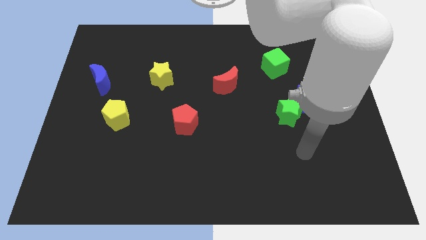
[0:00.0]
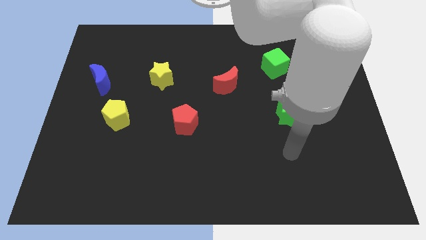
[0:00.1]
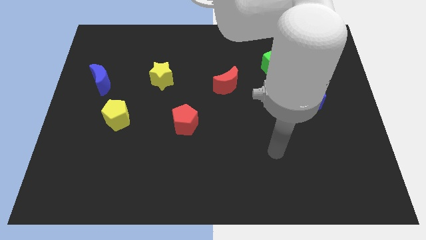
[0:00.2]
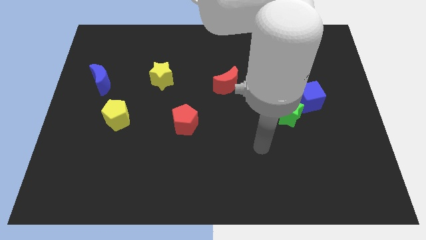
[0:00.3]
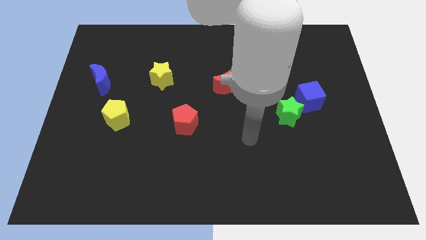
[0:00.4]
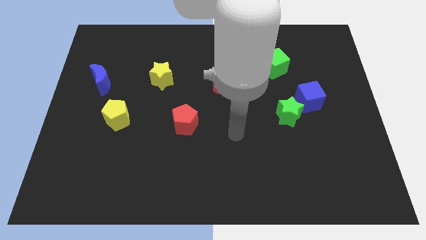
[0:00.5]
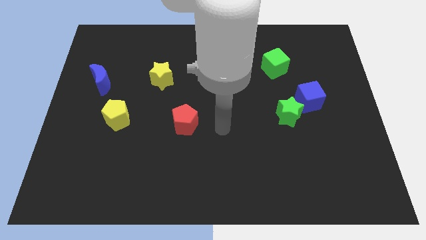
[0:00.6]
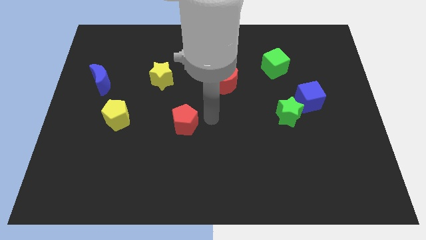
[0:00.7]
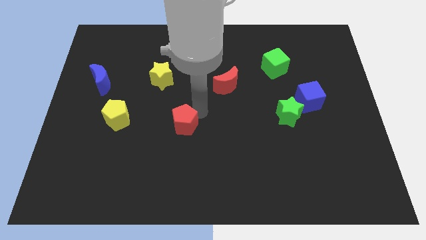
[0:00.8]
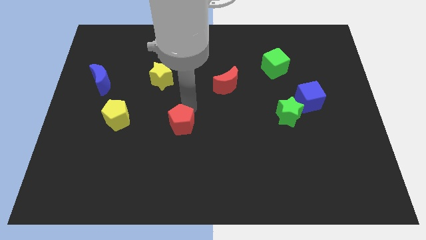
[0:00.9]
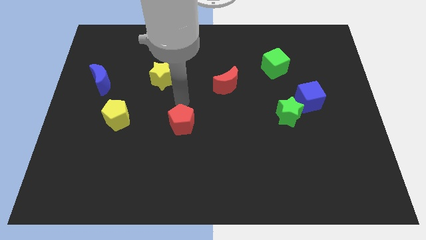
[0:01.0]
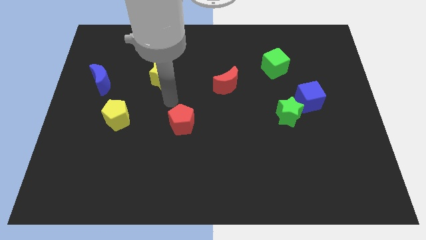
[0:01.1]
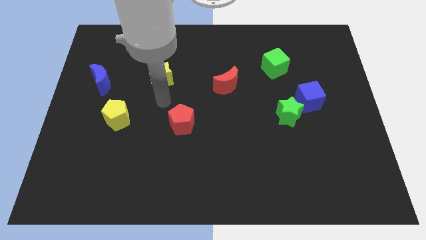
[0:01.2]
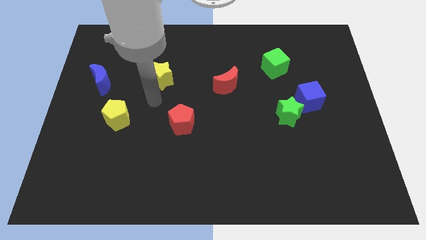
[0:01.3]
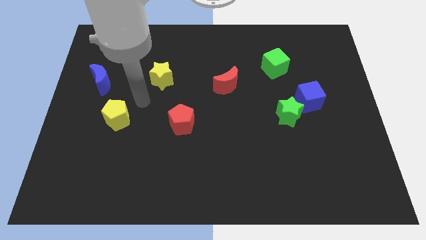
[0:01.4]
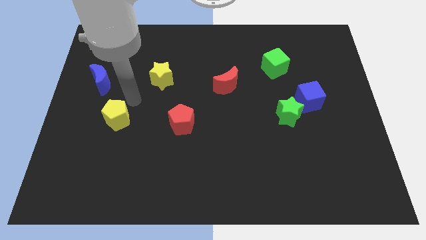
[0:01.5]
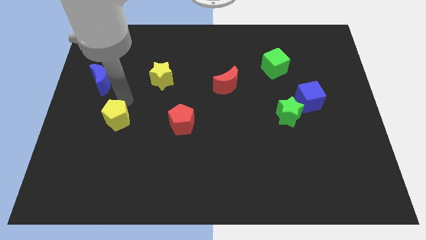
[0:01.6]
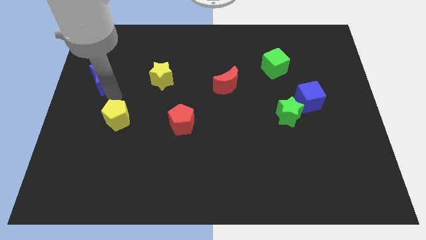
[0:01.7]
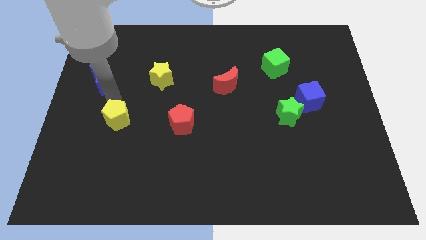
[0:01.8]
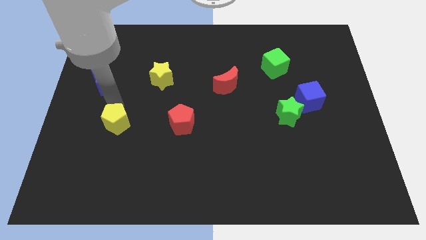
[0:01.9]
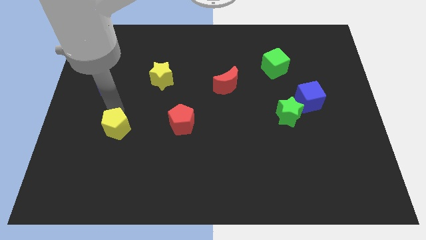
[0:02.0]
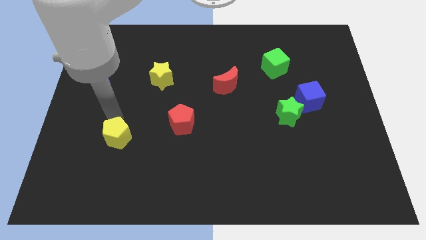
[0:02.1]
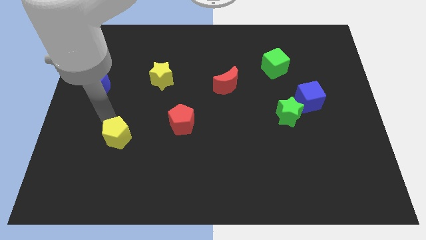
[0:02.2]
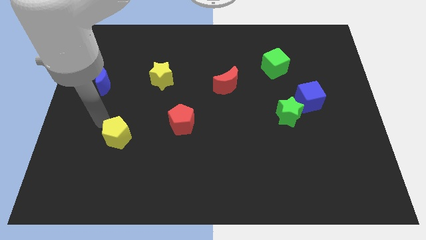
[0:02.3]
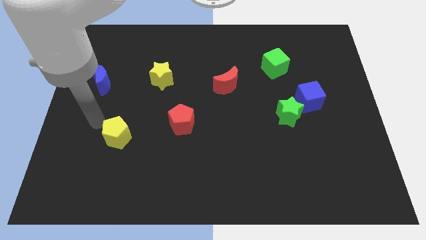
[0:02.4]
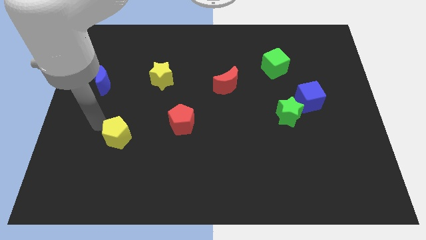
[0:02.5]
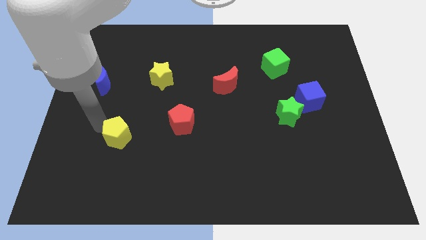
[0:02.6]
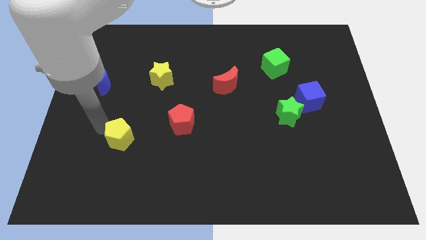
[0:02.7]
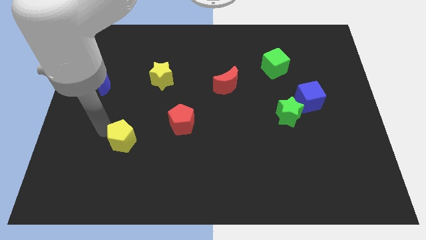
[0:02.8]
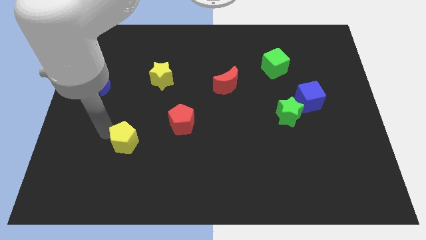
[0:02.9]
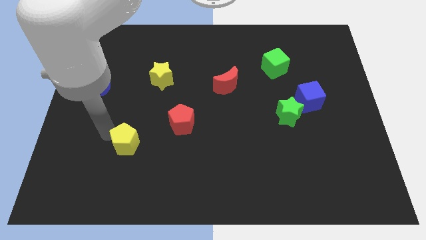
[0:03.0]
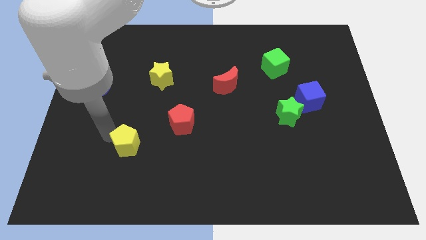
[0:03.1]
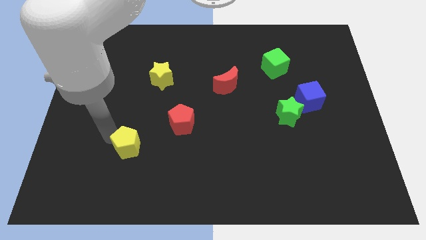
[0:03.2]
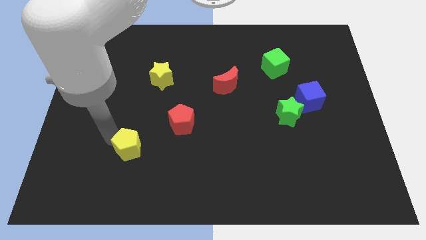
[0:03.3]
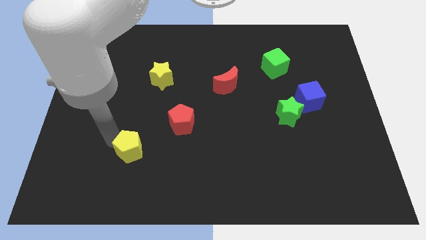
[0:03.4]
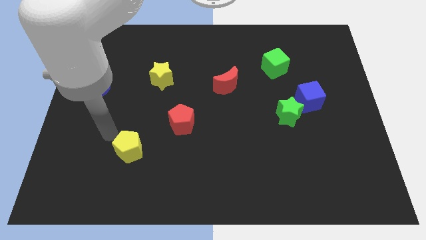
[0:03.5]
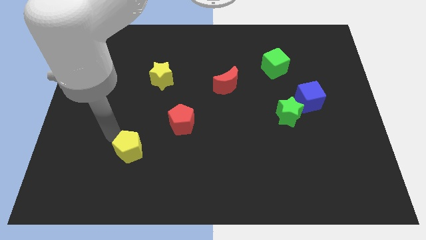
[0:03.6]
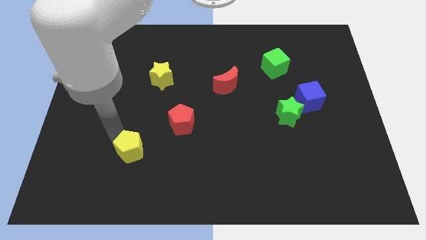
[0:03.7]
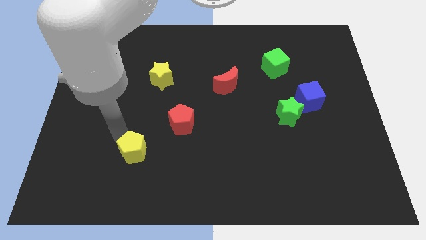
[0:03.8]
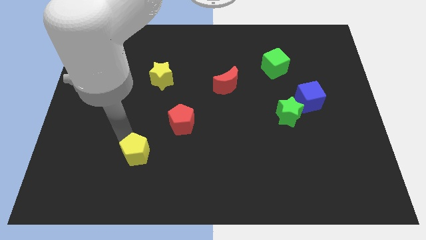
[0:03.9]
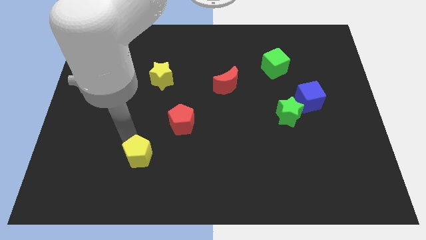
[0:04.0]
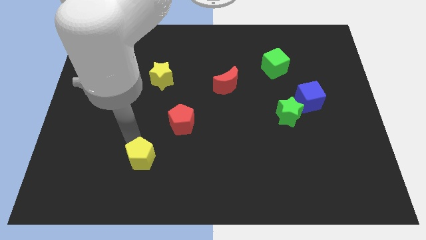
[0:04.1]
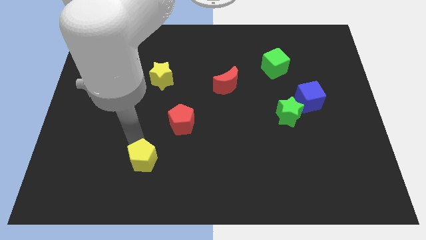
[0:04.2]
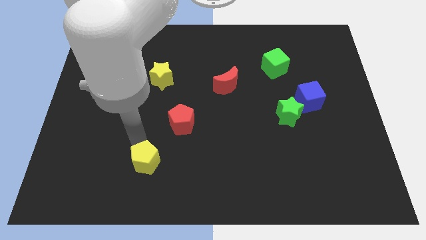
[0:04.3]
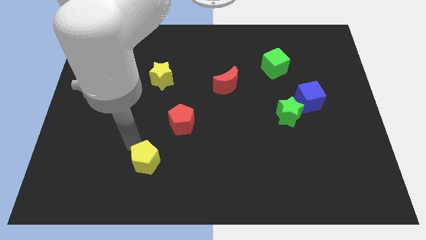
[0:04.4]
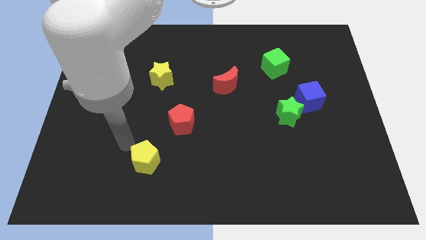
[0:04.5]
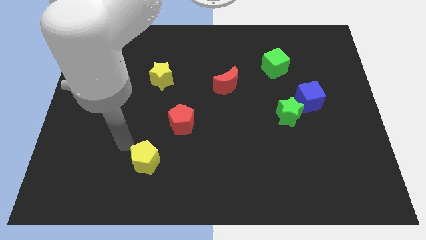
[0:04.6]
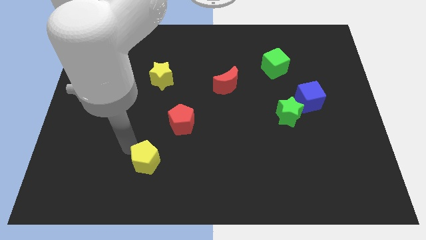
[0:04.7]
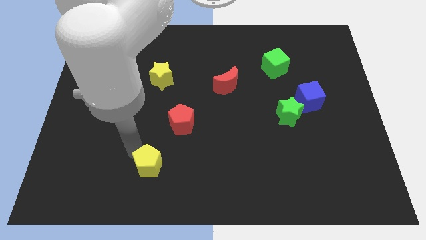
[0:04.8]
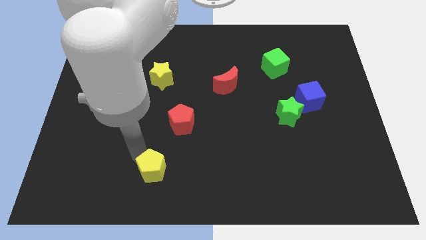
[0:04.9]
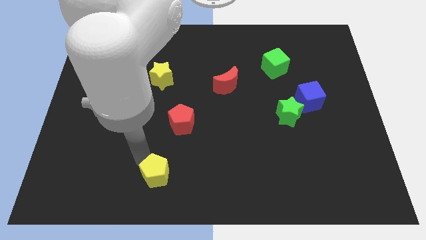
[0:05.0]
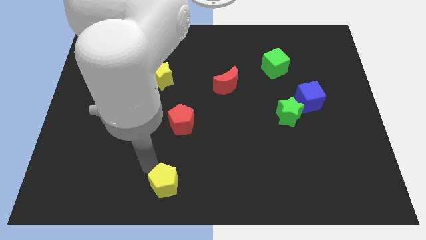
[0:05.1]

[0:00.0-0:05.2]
put the yellow pentagon to the bottom side

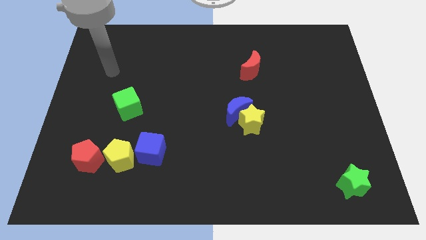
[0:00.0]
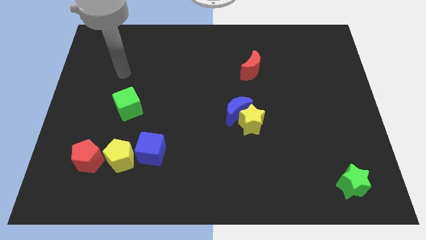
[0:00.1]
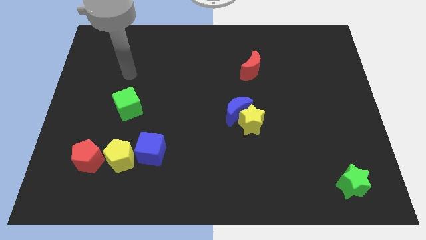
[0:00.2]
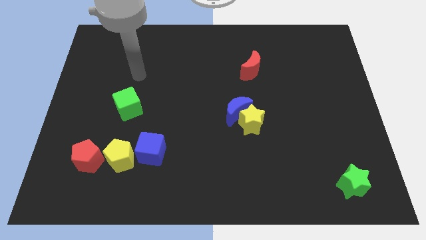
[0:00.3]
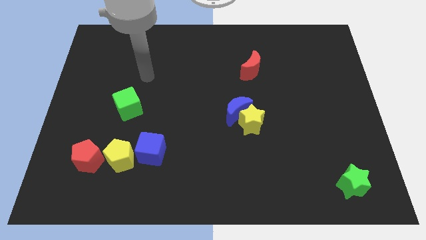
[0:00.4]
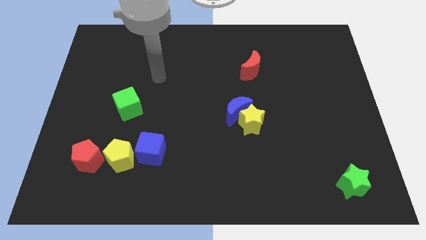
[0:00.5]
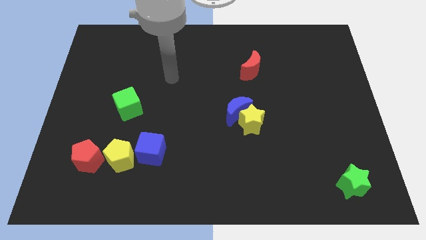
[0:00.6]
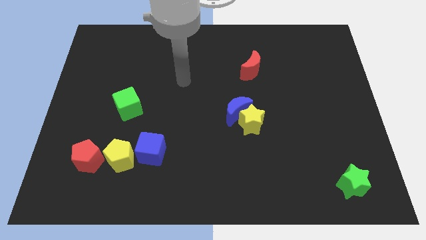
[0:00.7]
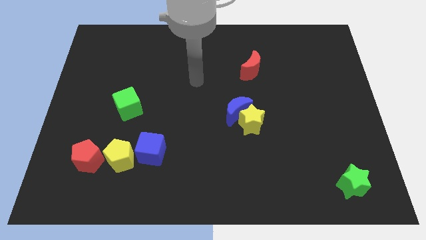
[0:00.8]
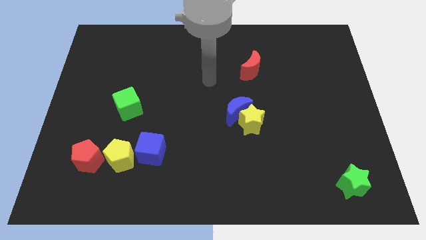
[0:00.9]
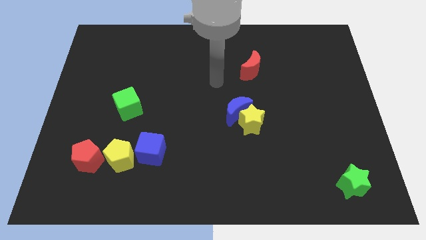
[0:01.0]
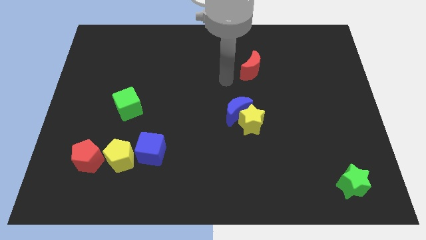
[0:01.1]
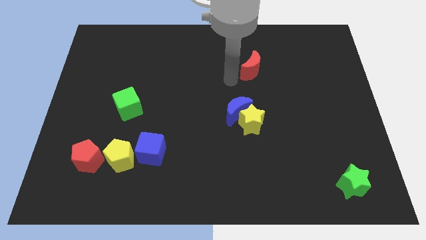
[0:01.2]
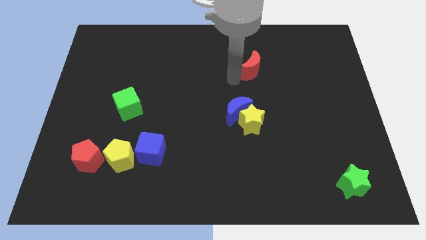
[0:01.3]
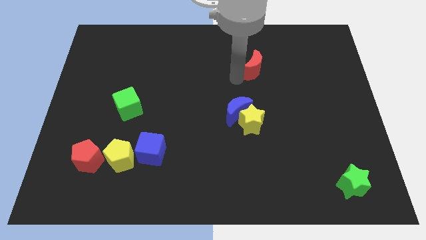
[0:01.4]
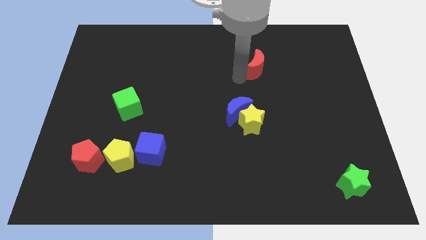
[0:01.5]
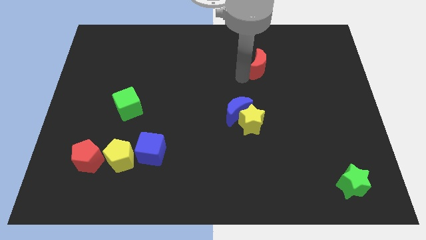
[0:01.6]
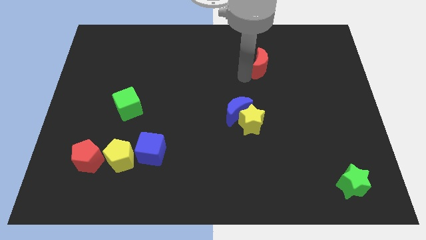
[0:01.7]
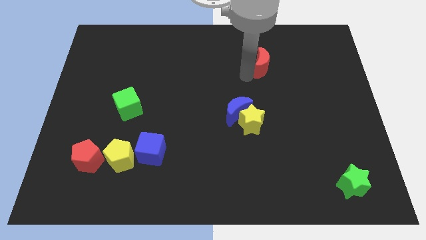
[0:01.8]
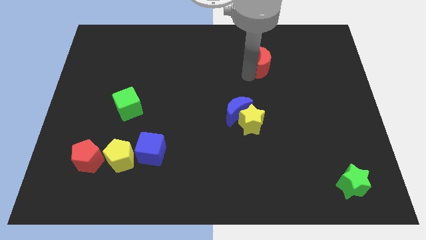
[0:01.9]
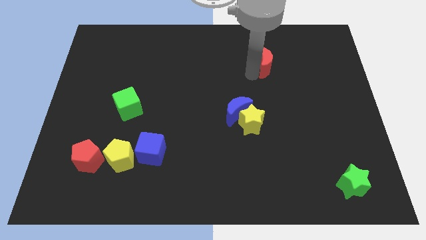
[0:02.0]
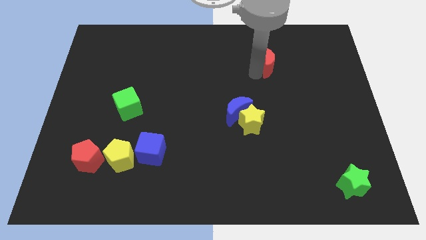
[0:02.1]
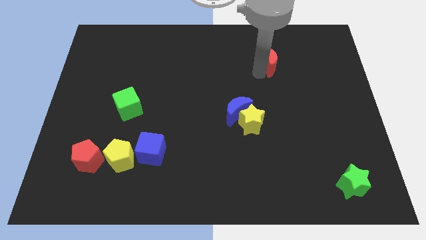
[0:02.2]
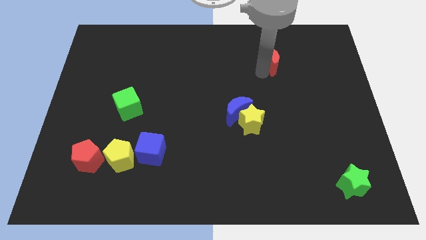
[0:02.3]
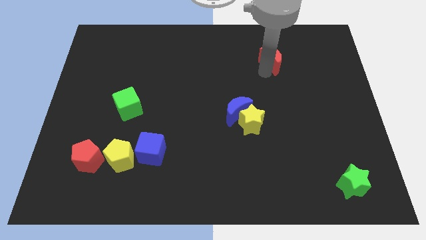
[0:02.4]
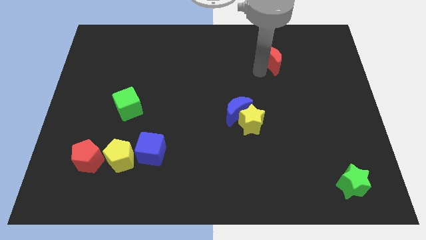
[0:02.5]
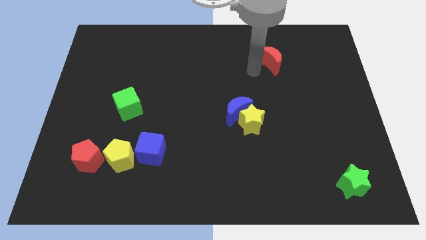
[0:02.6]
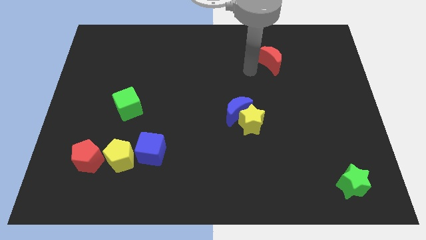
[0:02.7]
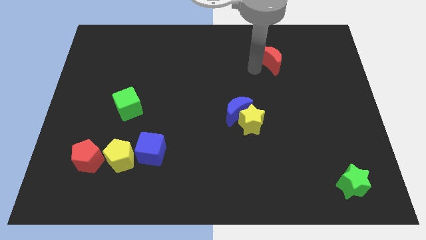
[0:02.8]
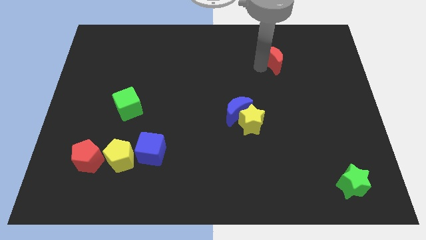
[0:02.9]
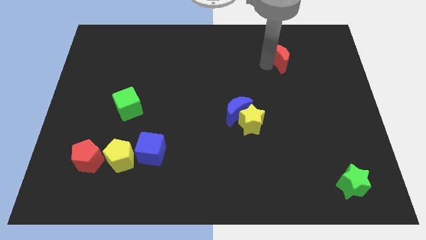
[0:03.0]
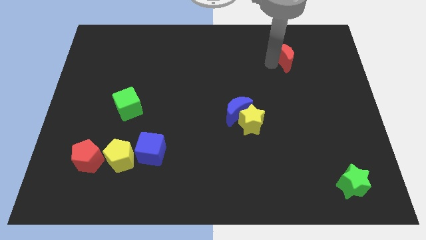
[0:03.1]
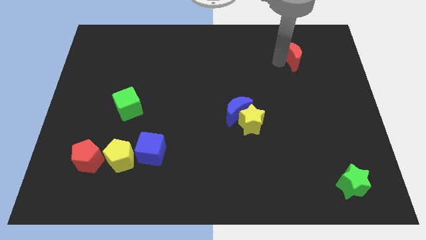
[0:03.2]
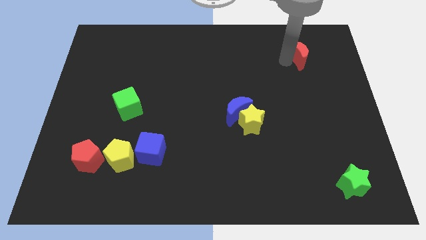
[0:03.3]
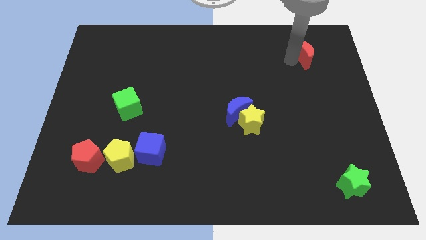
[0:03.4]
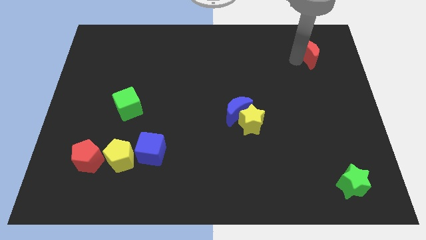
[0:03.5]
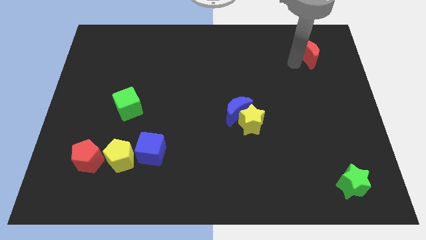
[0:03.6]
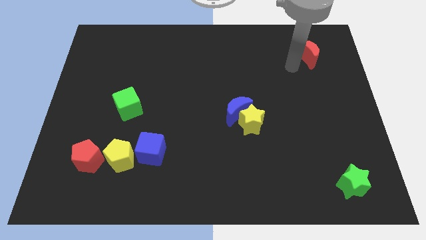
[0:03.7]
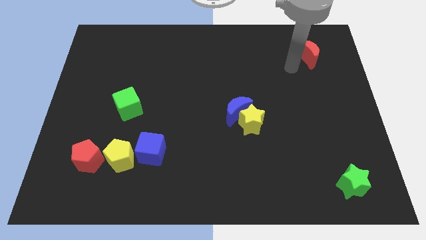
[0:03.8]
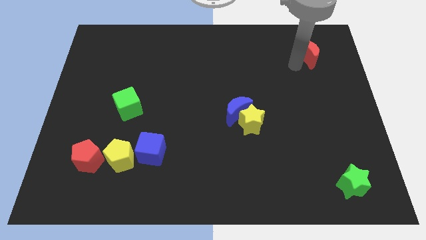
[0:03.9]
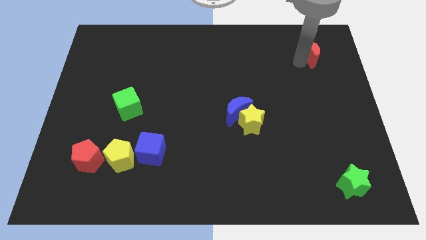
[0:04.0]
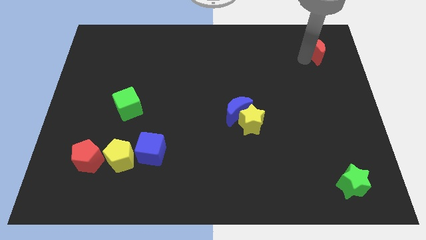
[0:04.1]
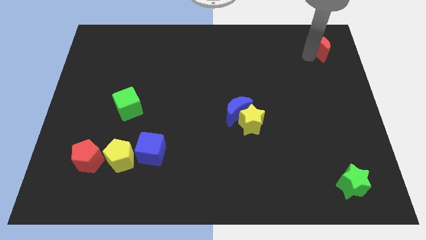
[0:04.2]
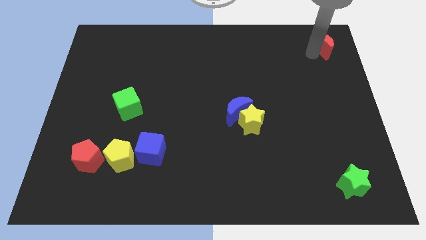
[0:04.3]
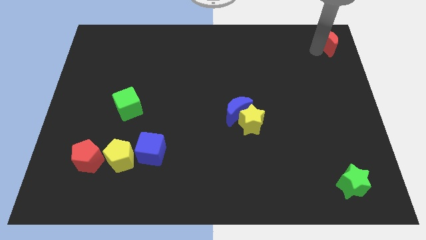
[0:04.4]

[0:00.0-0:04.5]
move the red moon to the top right
